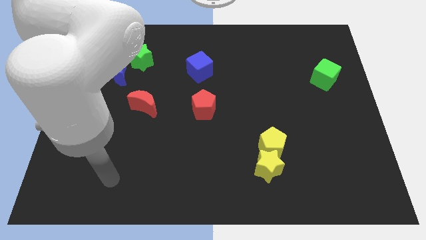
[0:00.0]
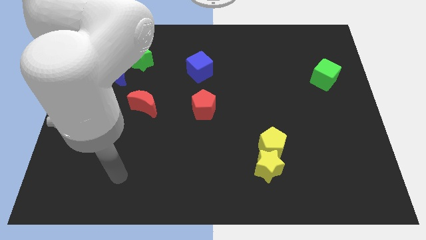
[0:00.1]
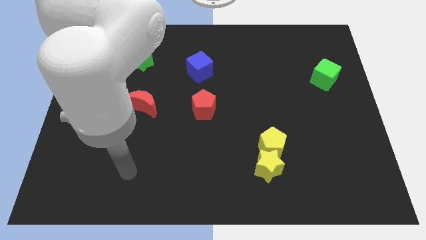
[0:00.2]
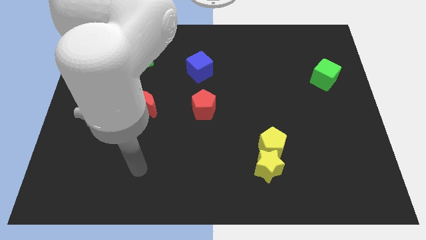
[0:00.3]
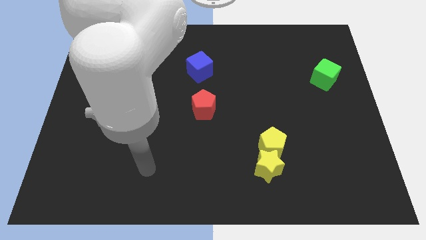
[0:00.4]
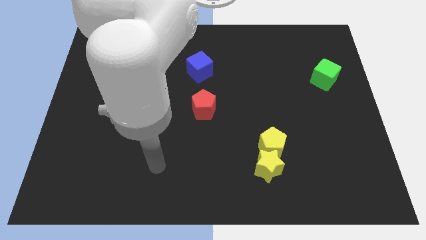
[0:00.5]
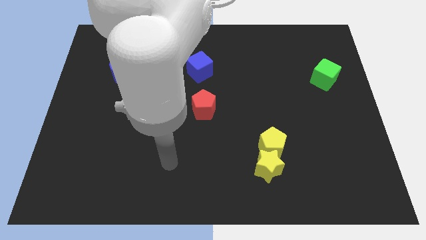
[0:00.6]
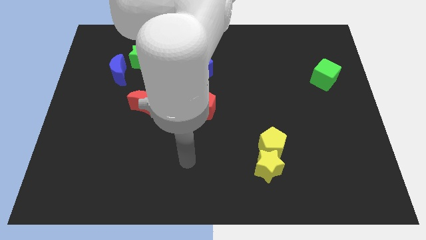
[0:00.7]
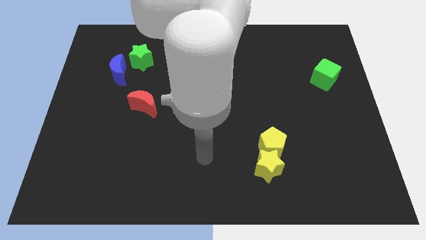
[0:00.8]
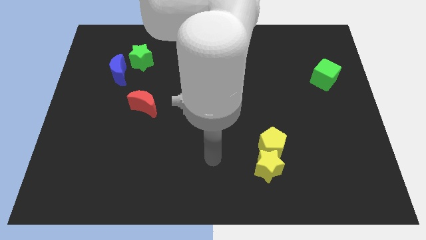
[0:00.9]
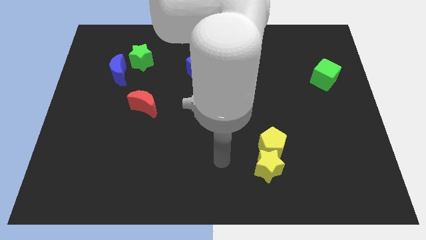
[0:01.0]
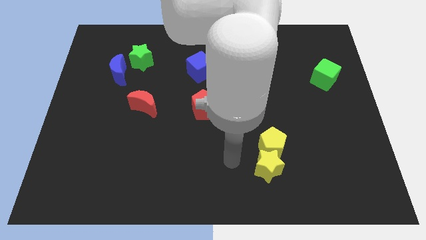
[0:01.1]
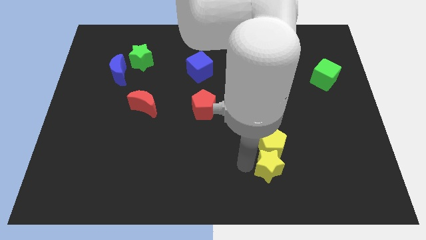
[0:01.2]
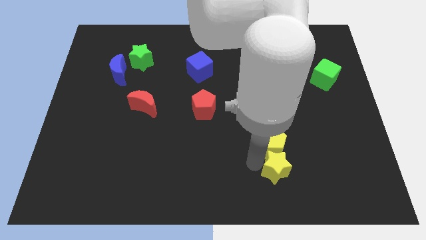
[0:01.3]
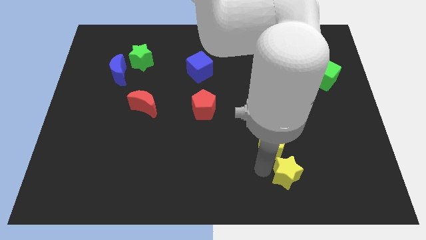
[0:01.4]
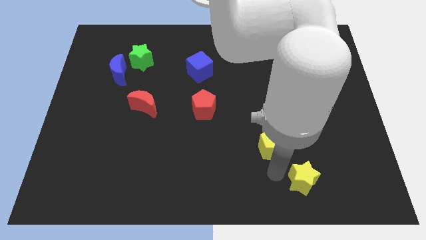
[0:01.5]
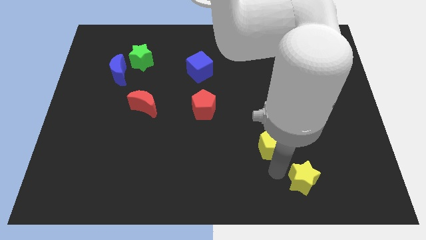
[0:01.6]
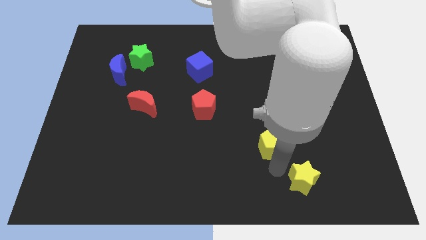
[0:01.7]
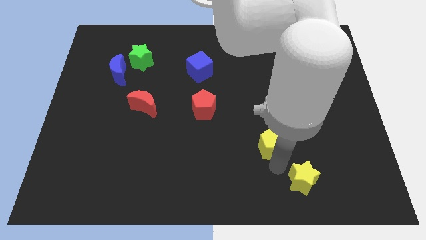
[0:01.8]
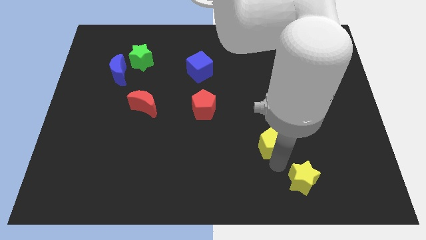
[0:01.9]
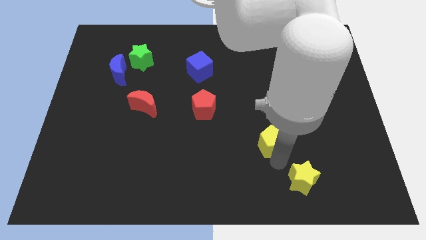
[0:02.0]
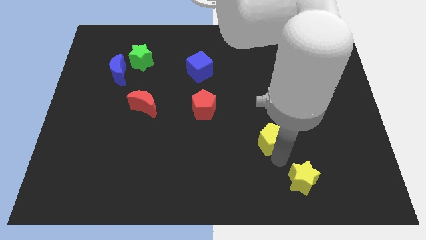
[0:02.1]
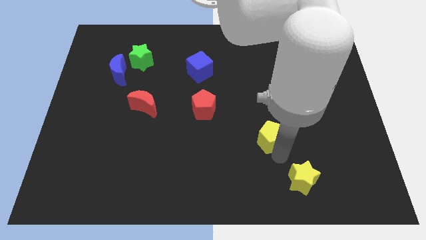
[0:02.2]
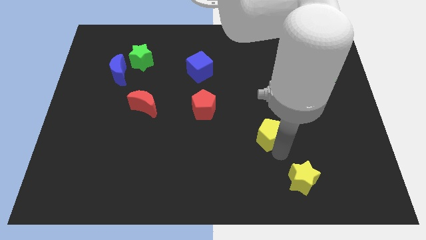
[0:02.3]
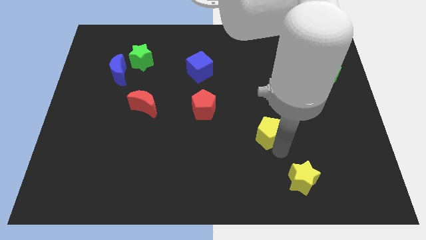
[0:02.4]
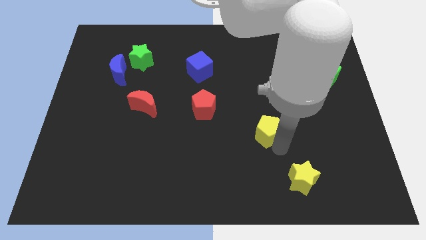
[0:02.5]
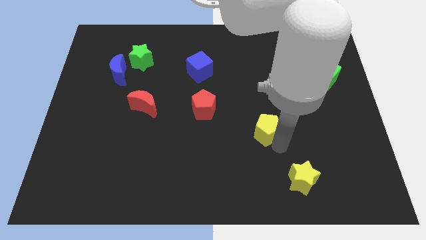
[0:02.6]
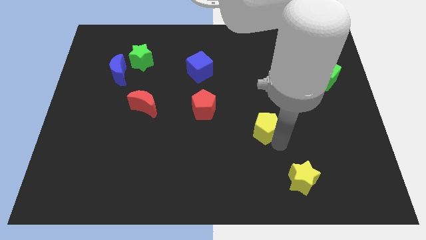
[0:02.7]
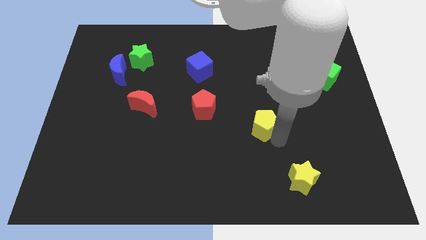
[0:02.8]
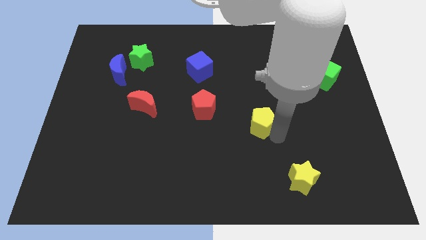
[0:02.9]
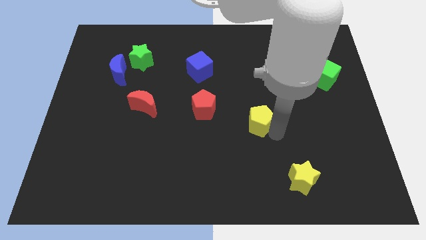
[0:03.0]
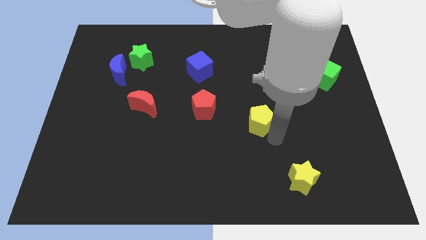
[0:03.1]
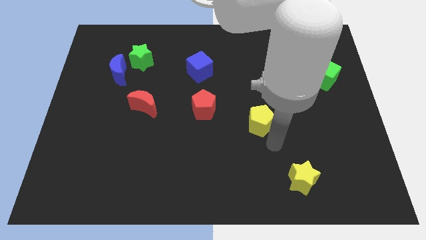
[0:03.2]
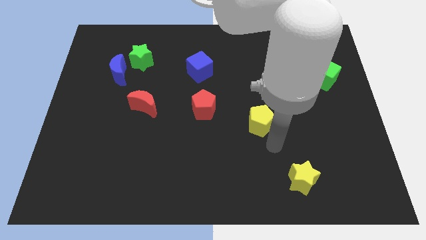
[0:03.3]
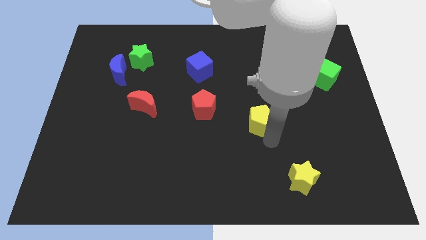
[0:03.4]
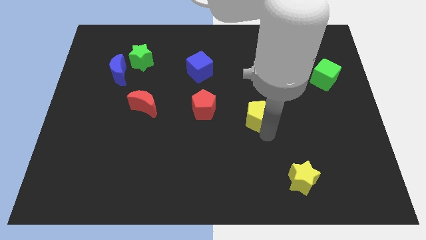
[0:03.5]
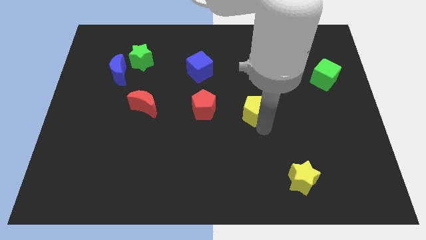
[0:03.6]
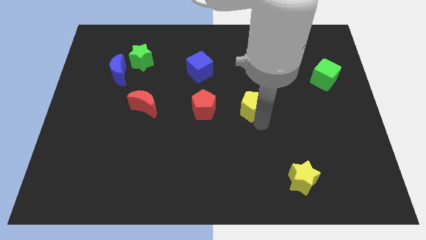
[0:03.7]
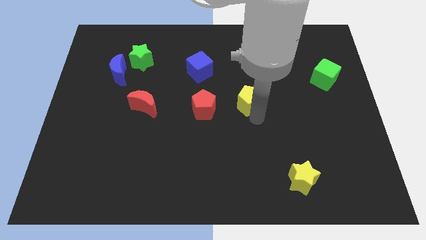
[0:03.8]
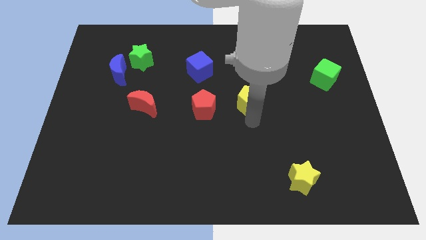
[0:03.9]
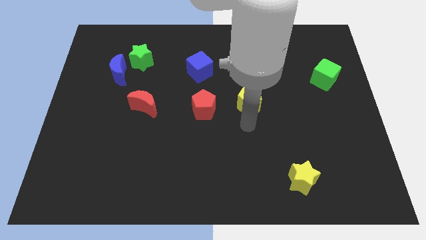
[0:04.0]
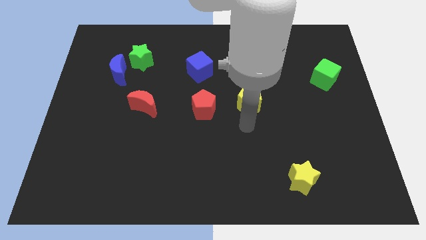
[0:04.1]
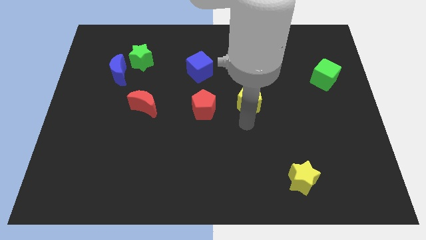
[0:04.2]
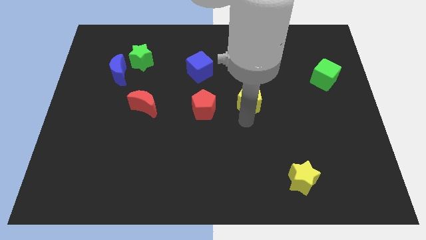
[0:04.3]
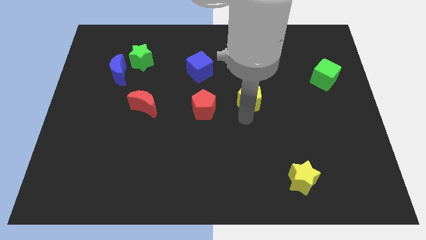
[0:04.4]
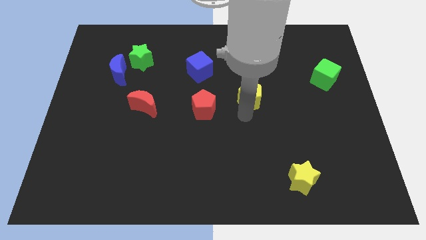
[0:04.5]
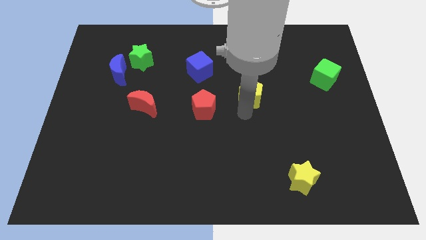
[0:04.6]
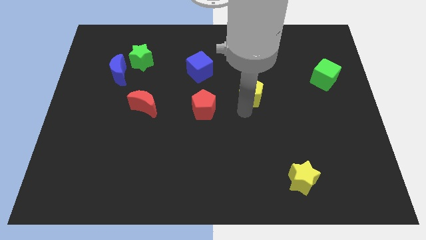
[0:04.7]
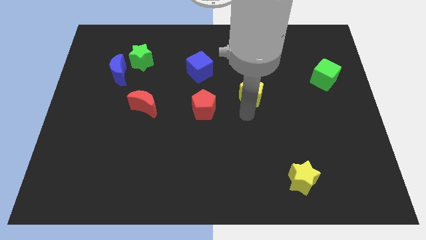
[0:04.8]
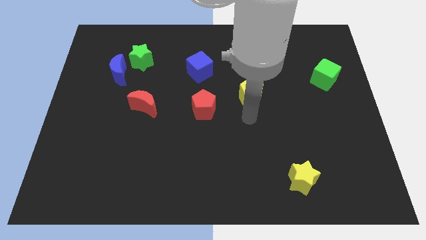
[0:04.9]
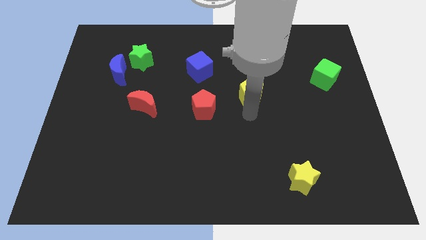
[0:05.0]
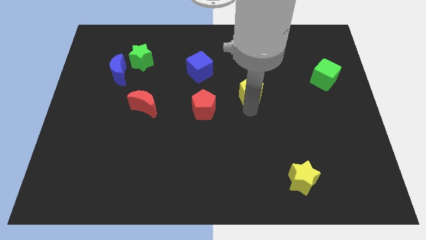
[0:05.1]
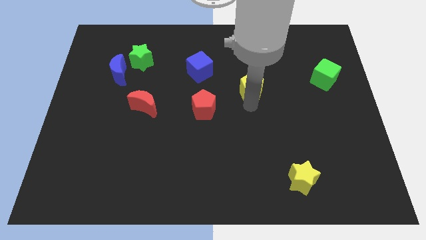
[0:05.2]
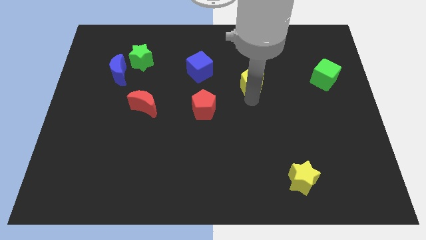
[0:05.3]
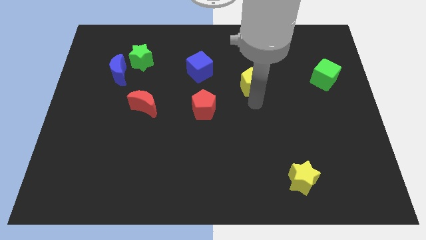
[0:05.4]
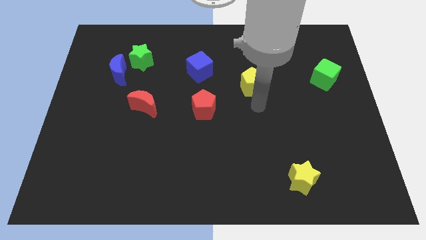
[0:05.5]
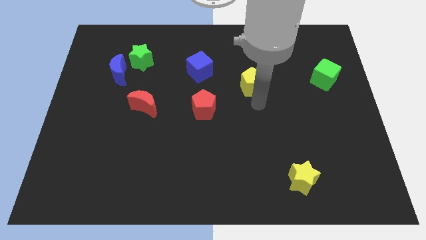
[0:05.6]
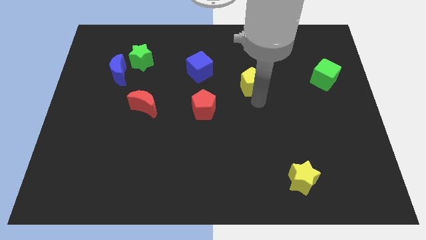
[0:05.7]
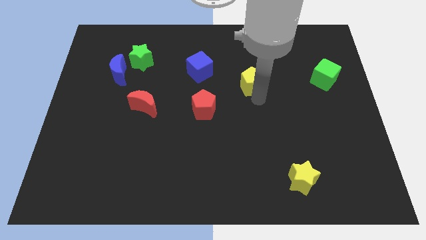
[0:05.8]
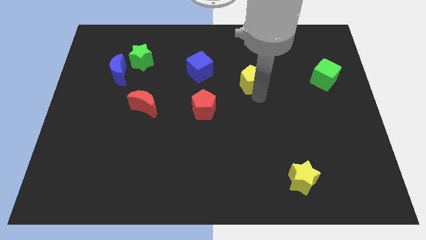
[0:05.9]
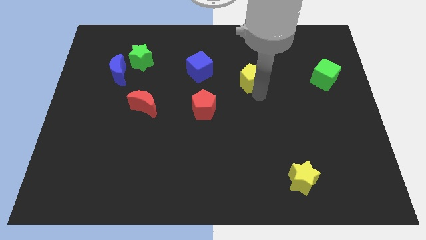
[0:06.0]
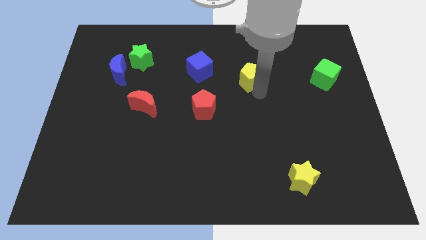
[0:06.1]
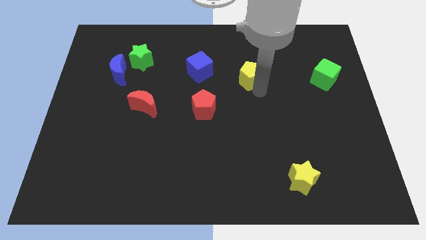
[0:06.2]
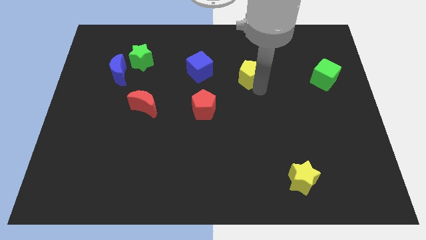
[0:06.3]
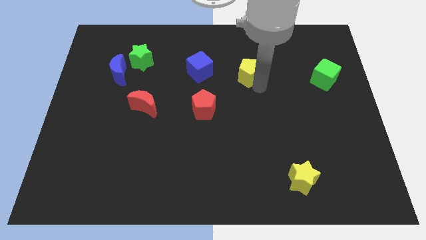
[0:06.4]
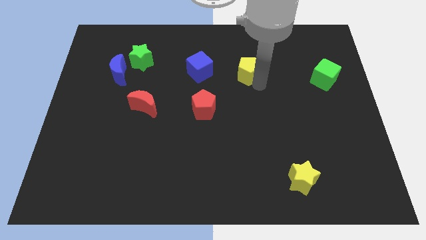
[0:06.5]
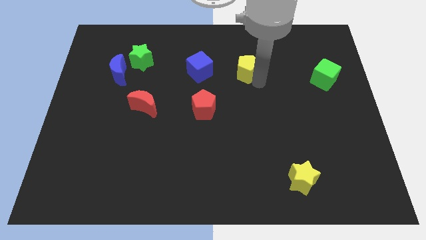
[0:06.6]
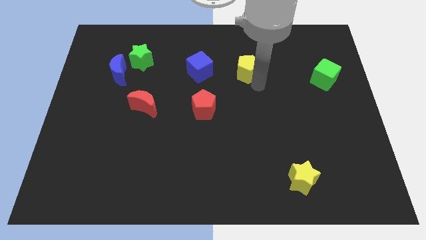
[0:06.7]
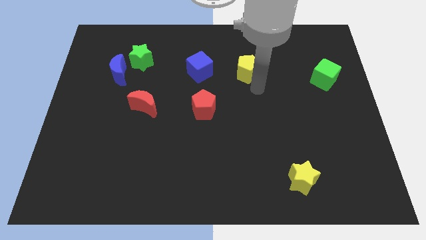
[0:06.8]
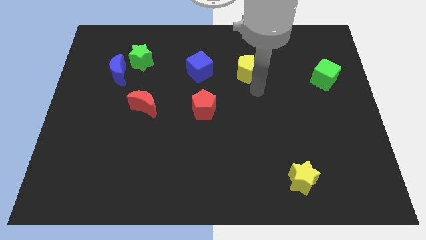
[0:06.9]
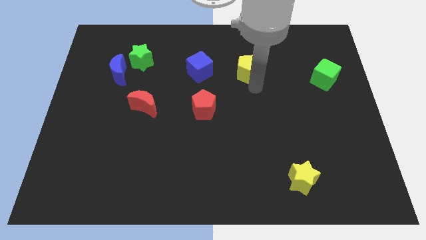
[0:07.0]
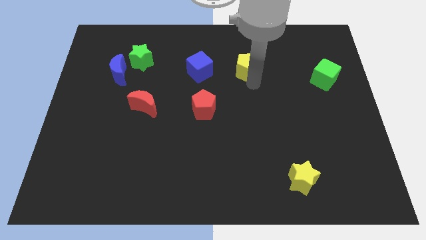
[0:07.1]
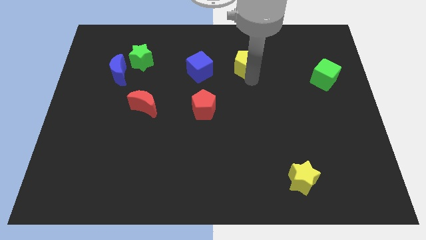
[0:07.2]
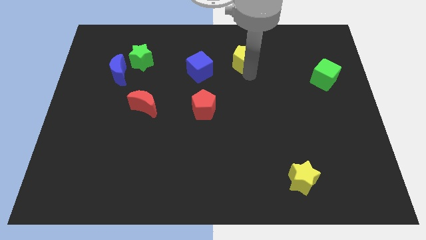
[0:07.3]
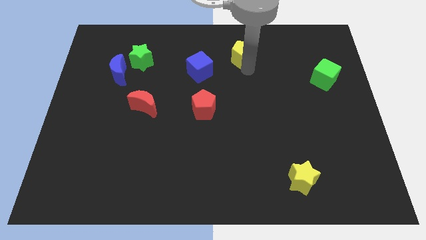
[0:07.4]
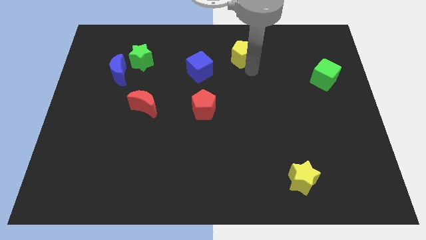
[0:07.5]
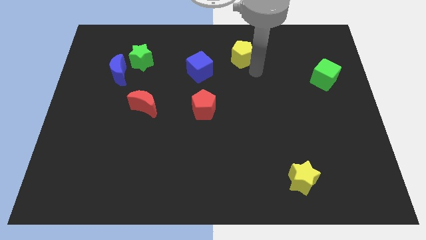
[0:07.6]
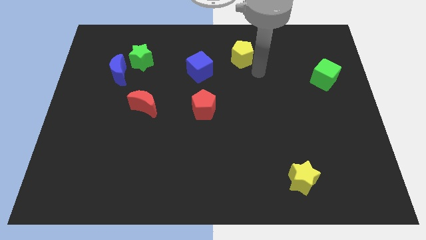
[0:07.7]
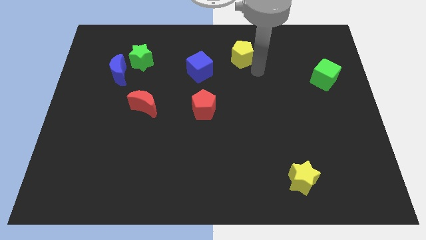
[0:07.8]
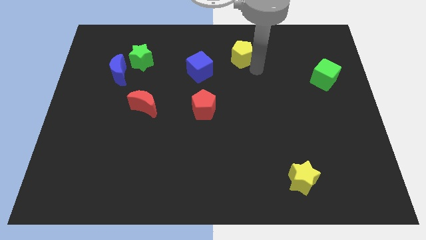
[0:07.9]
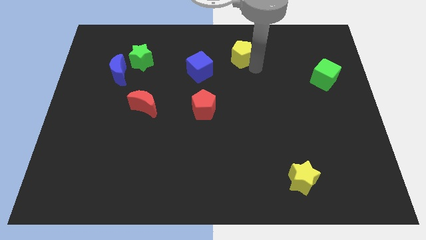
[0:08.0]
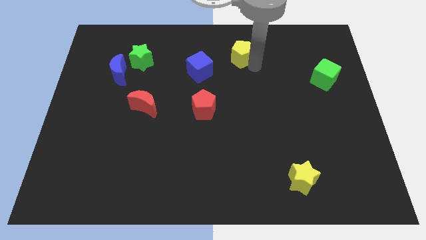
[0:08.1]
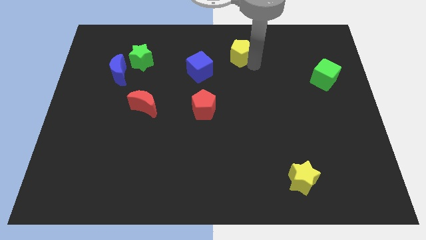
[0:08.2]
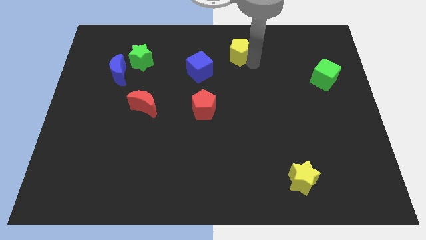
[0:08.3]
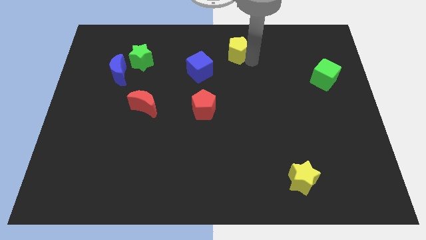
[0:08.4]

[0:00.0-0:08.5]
slide the yellow pentagon to the towards your base
